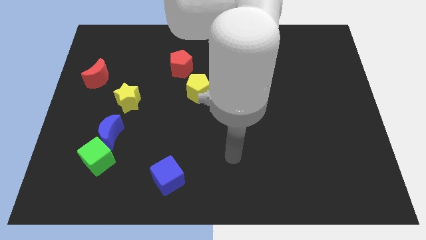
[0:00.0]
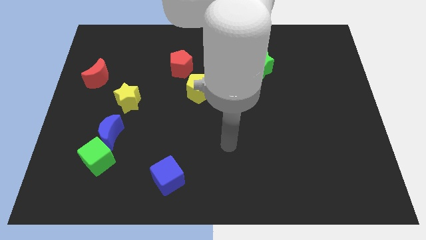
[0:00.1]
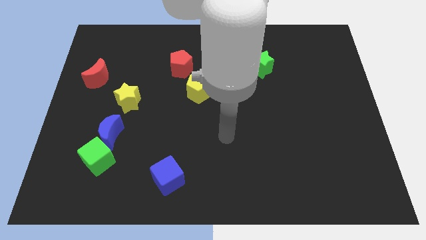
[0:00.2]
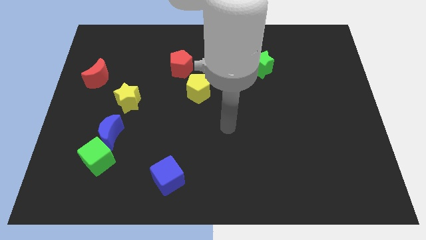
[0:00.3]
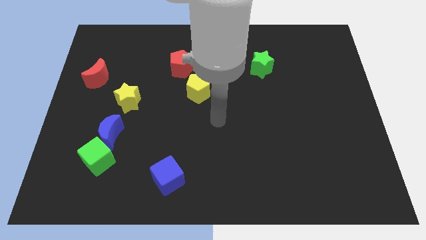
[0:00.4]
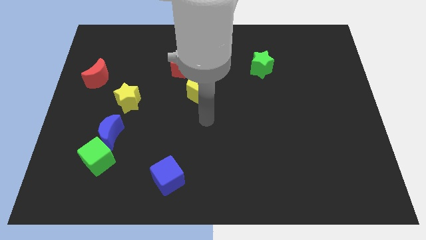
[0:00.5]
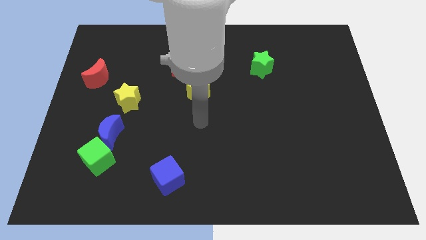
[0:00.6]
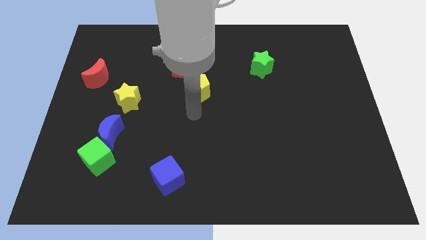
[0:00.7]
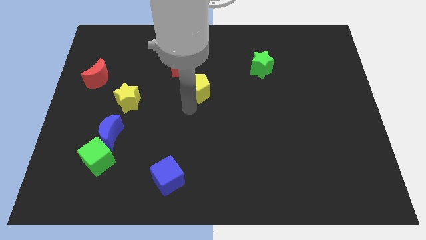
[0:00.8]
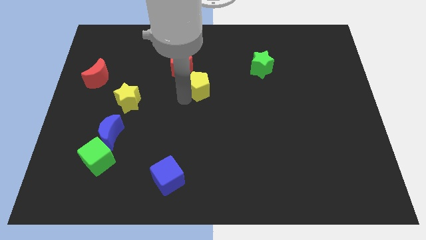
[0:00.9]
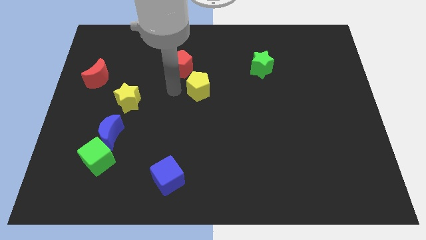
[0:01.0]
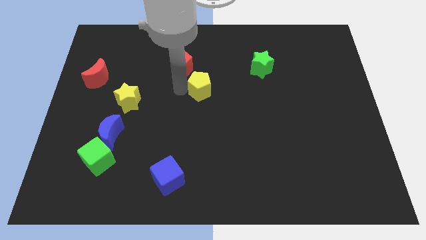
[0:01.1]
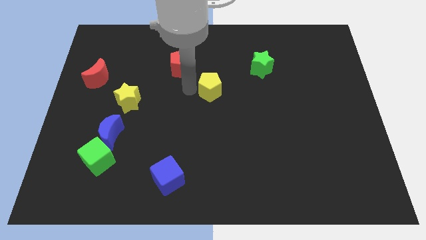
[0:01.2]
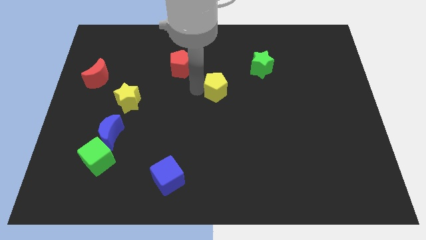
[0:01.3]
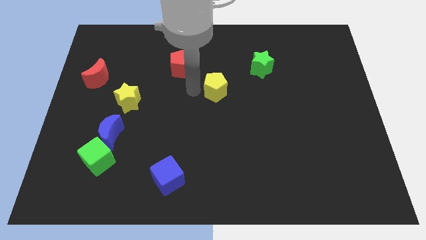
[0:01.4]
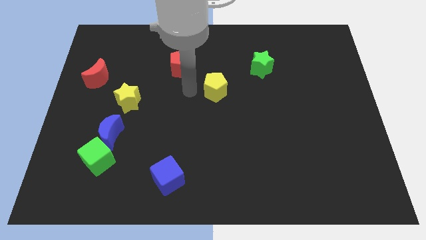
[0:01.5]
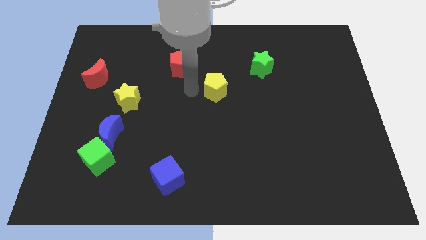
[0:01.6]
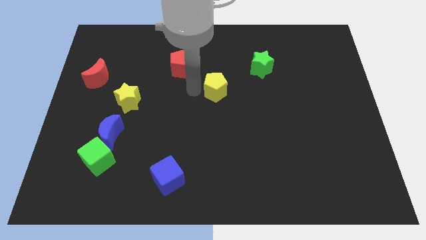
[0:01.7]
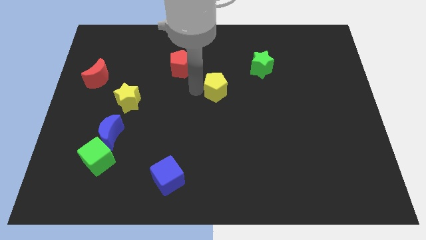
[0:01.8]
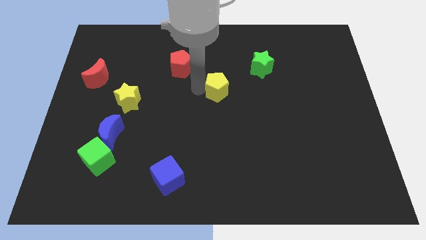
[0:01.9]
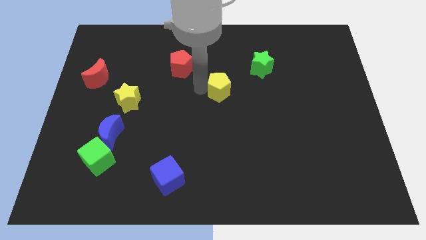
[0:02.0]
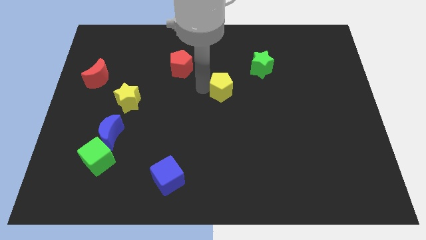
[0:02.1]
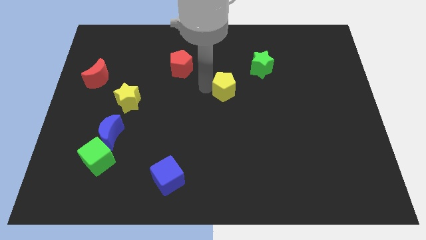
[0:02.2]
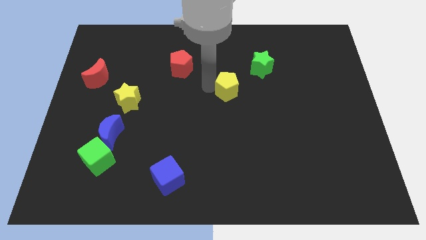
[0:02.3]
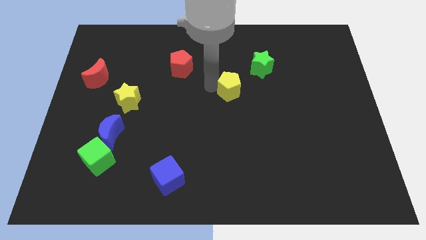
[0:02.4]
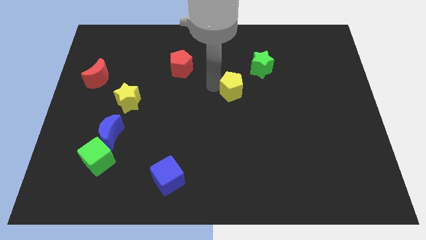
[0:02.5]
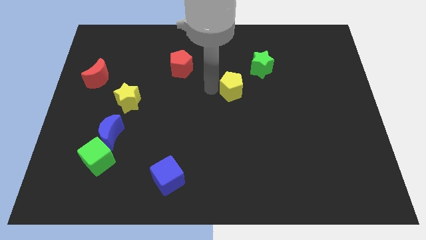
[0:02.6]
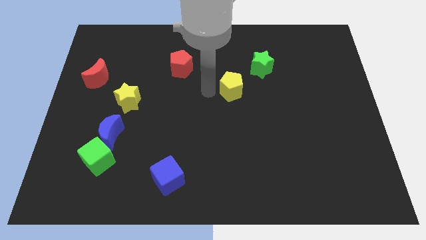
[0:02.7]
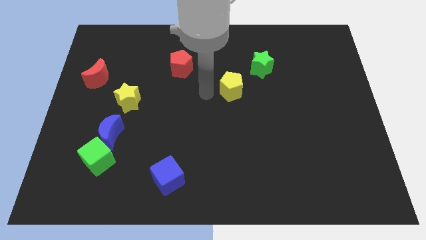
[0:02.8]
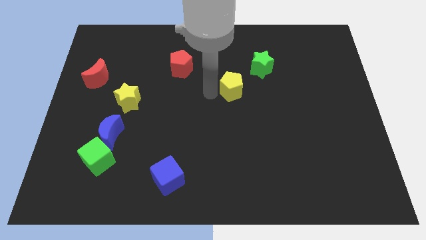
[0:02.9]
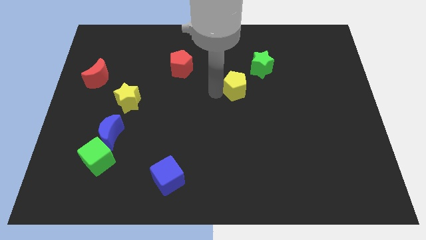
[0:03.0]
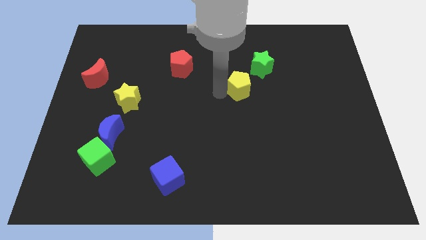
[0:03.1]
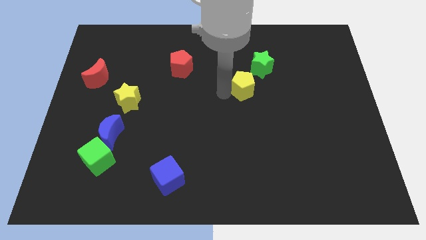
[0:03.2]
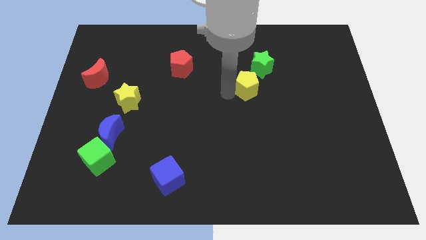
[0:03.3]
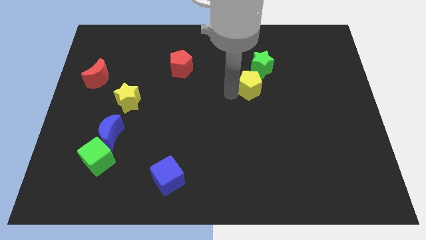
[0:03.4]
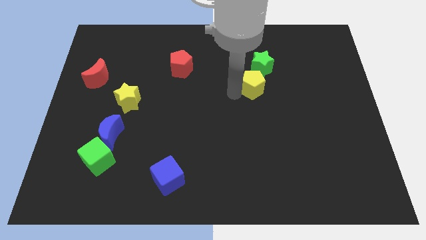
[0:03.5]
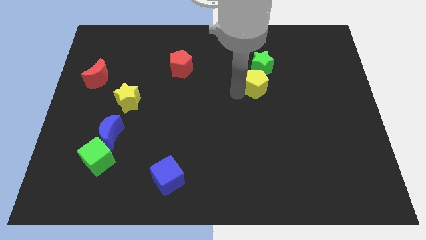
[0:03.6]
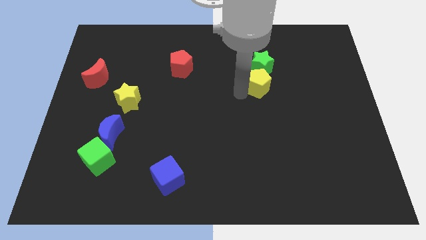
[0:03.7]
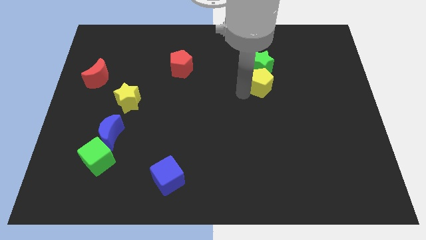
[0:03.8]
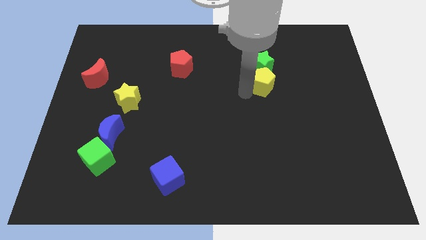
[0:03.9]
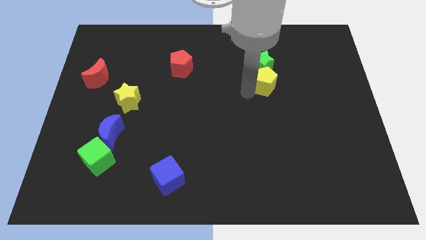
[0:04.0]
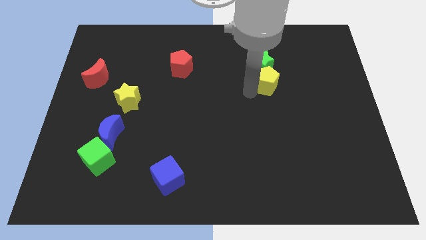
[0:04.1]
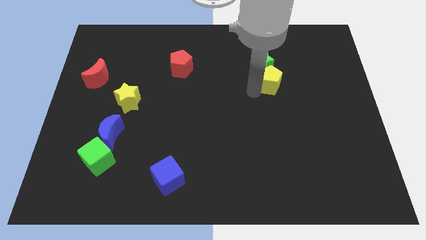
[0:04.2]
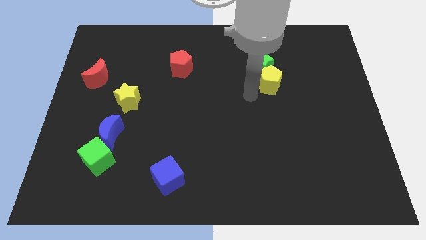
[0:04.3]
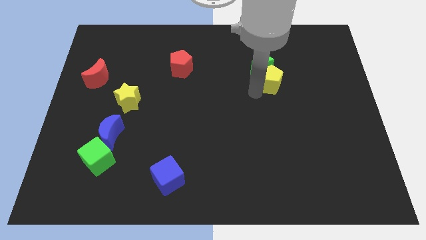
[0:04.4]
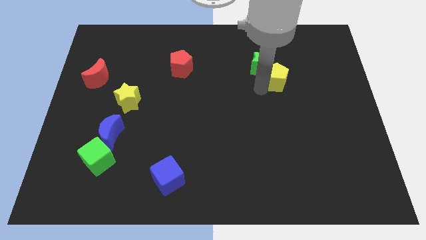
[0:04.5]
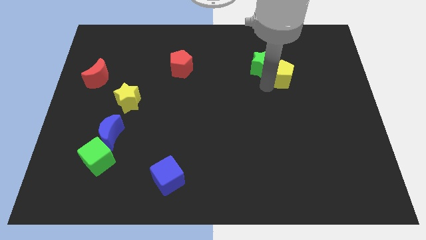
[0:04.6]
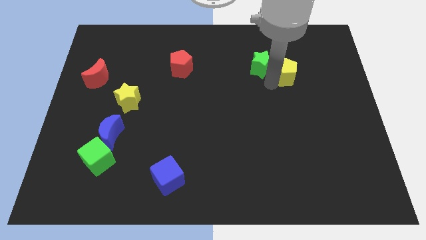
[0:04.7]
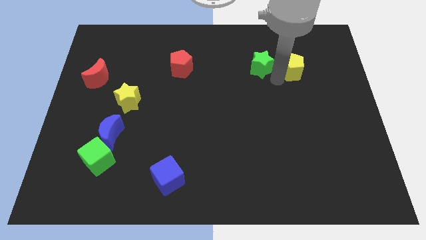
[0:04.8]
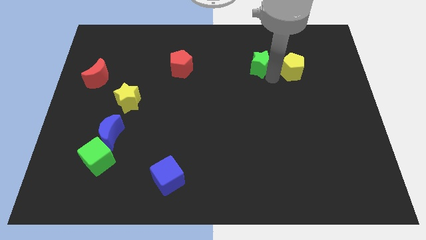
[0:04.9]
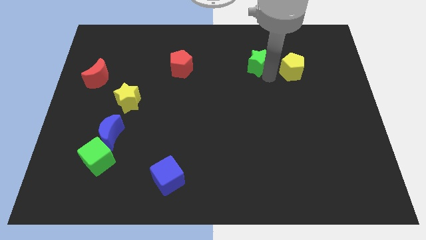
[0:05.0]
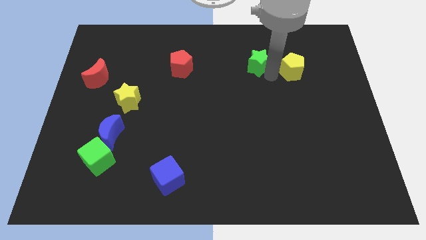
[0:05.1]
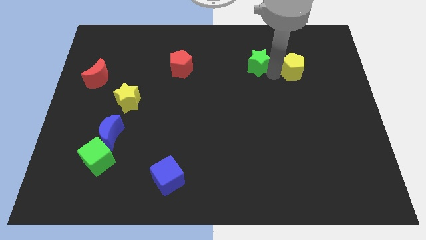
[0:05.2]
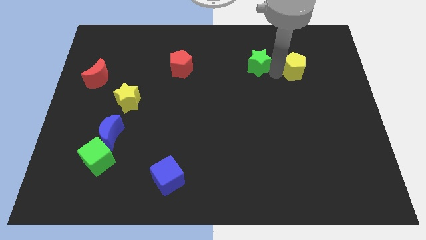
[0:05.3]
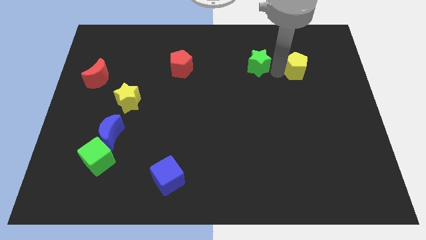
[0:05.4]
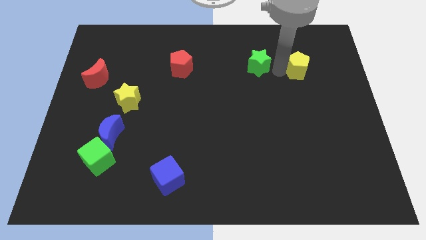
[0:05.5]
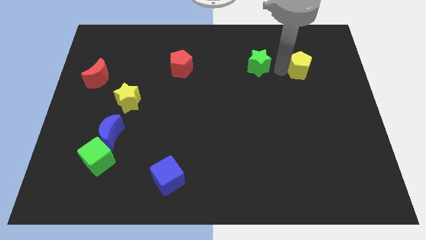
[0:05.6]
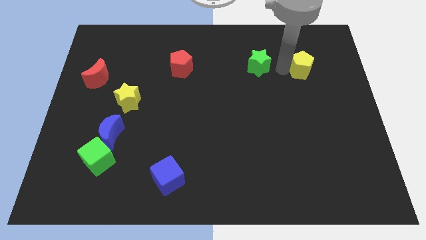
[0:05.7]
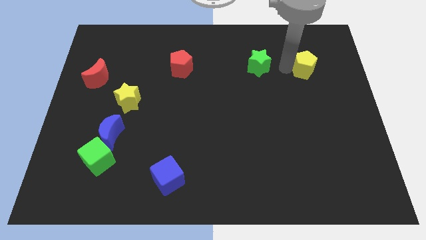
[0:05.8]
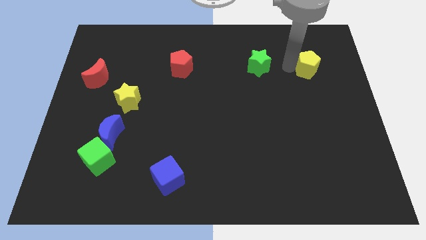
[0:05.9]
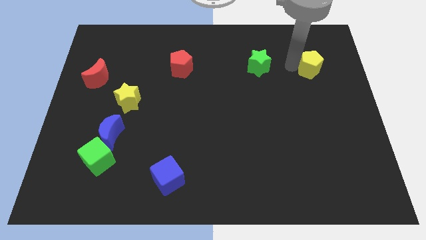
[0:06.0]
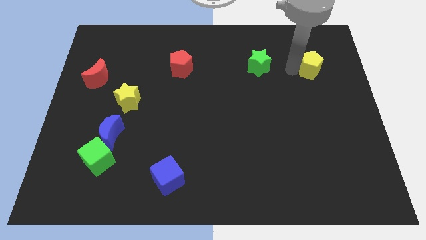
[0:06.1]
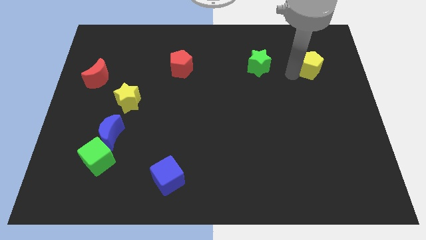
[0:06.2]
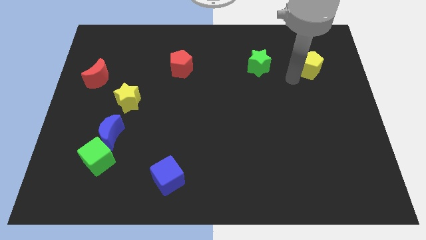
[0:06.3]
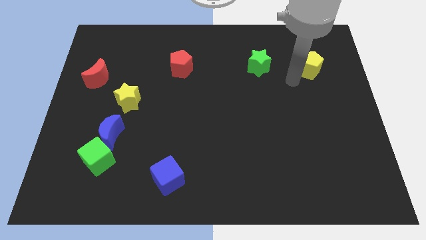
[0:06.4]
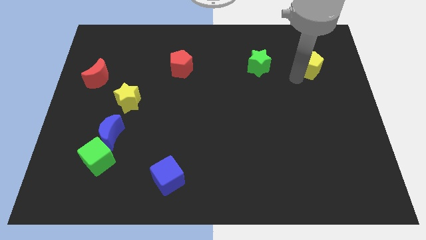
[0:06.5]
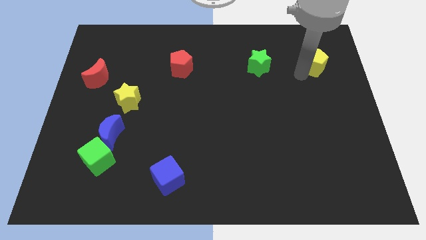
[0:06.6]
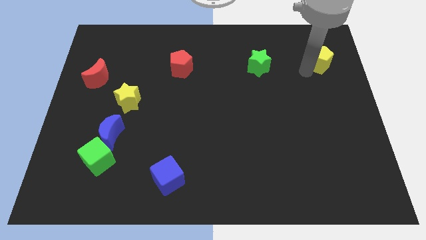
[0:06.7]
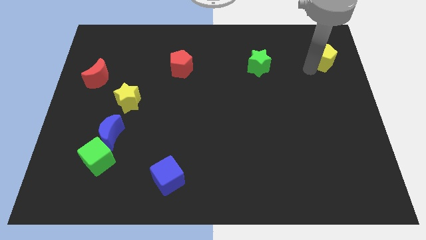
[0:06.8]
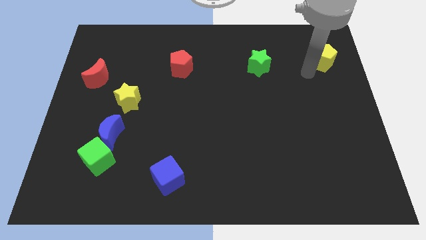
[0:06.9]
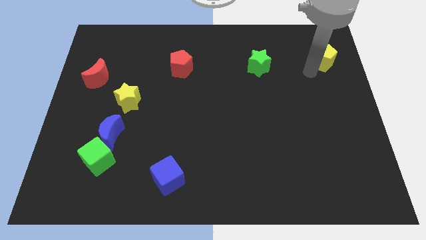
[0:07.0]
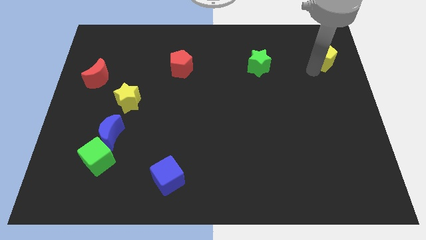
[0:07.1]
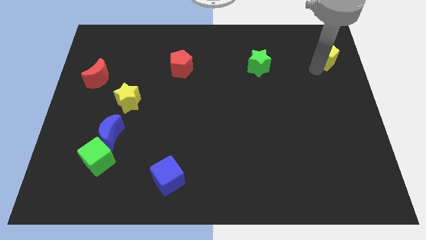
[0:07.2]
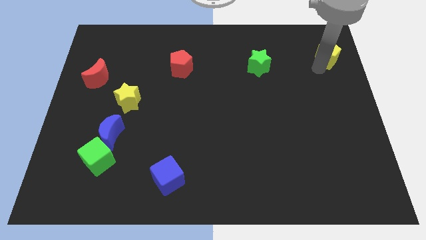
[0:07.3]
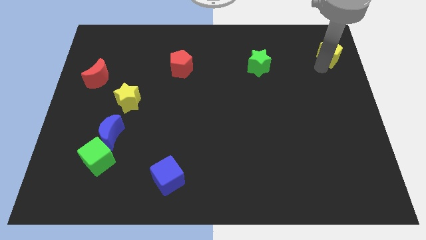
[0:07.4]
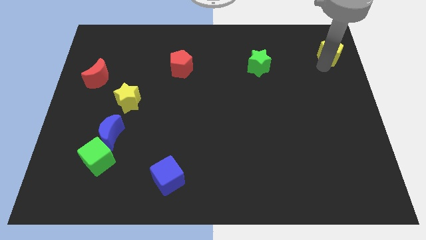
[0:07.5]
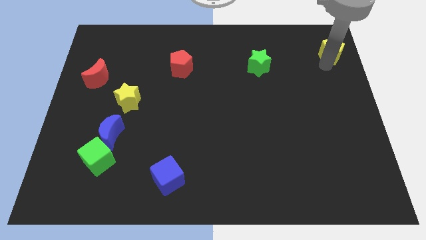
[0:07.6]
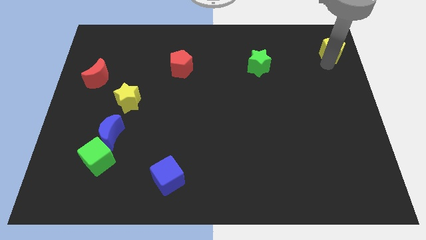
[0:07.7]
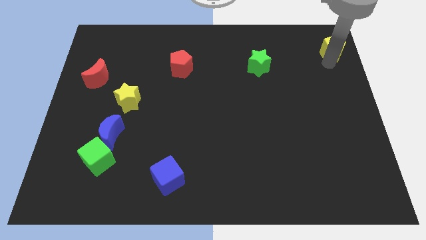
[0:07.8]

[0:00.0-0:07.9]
slide the yellow pentagon to the top right of the board
